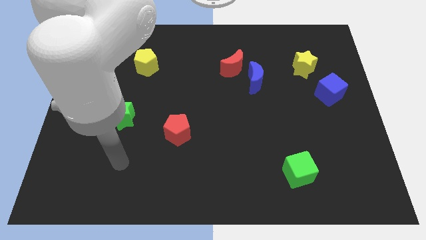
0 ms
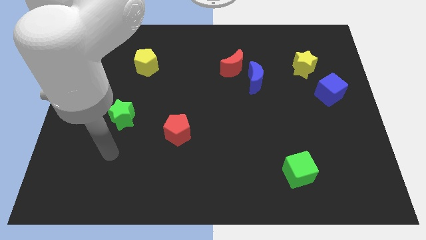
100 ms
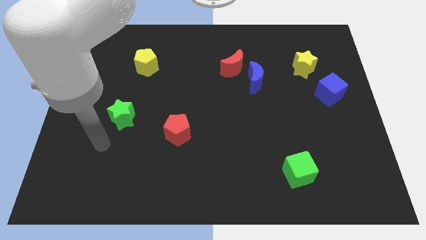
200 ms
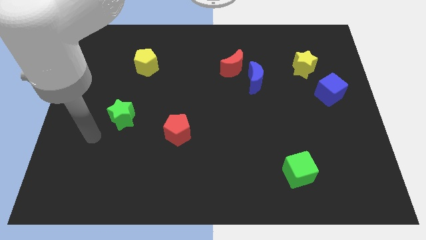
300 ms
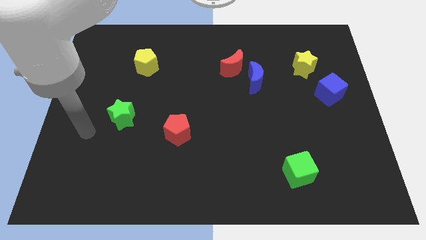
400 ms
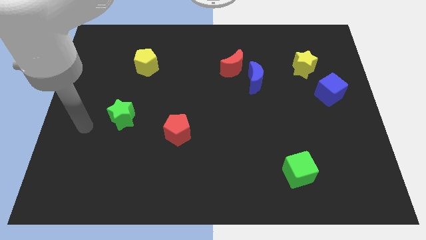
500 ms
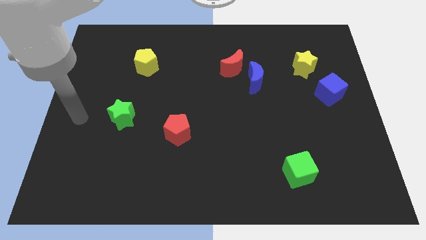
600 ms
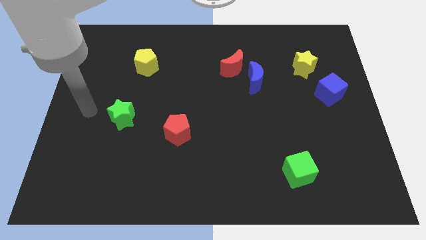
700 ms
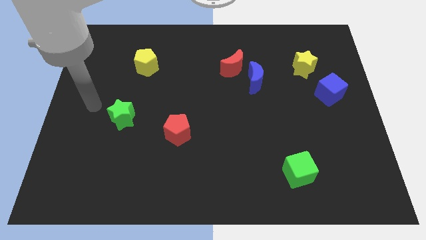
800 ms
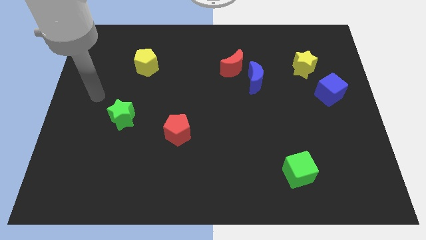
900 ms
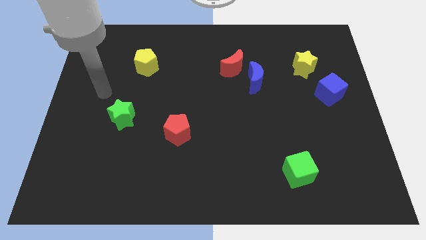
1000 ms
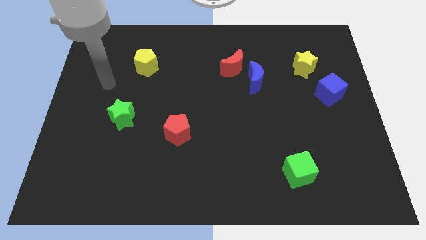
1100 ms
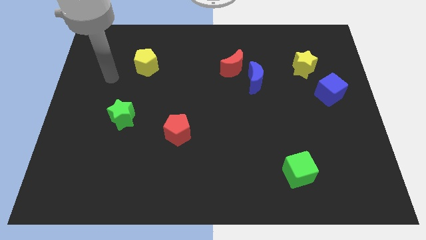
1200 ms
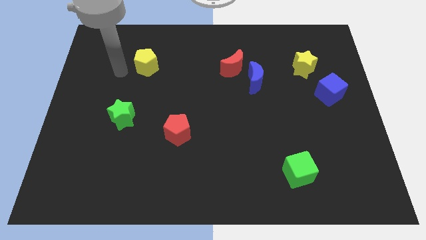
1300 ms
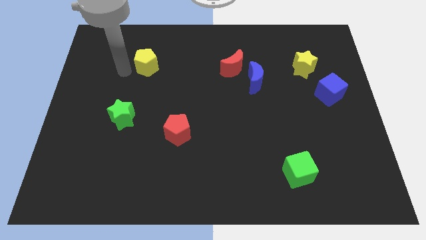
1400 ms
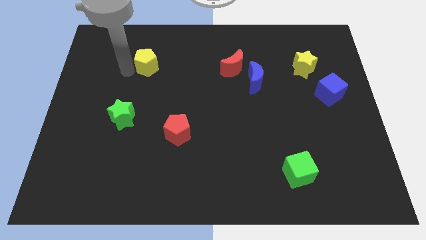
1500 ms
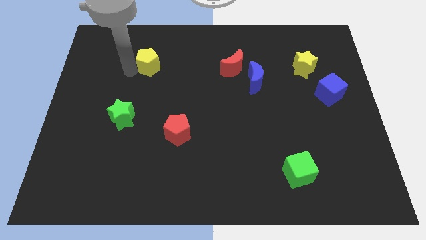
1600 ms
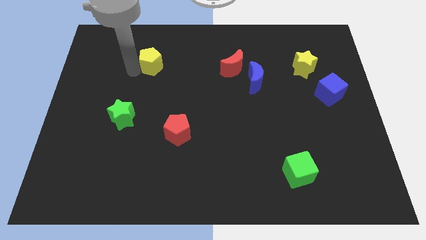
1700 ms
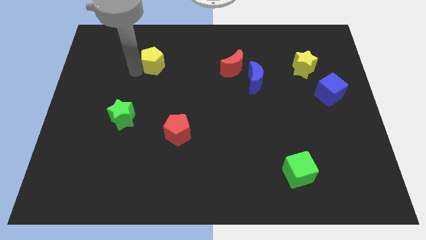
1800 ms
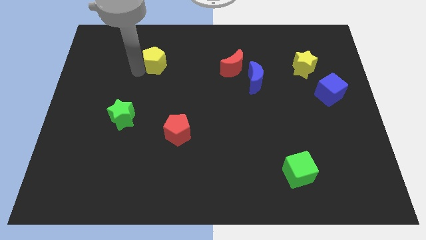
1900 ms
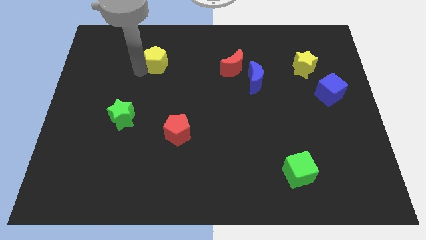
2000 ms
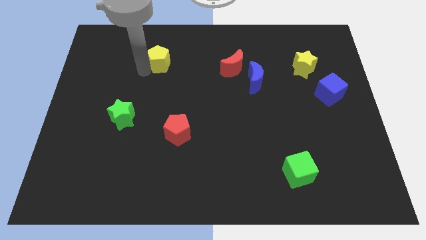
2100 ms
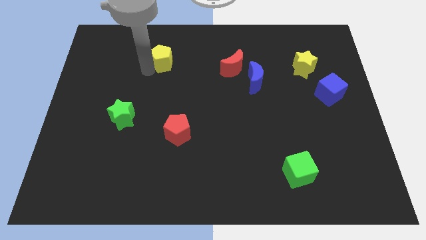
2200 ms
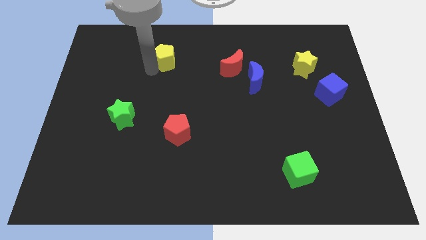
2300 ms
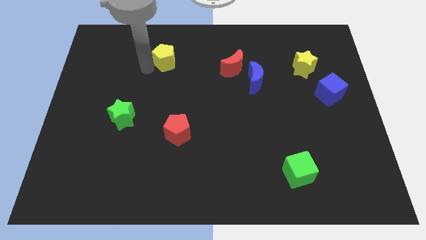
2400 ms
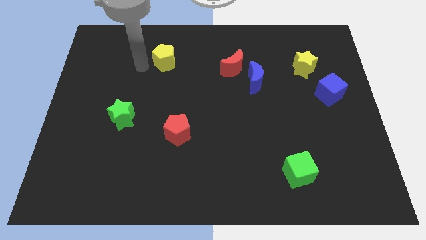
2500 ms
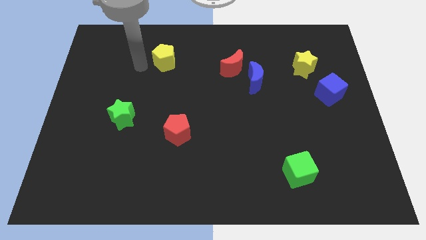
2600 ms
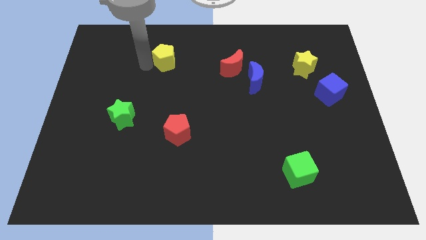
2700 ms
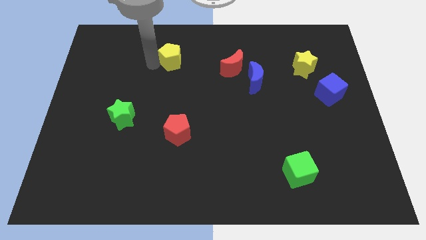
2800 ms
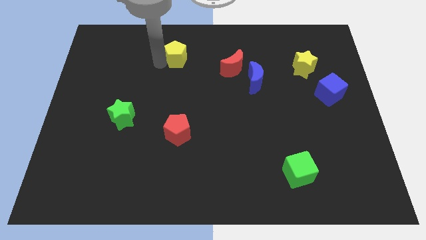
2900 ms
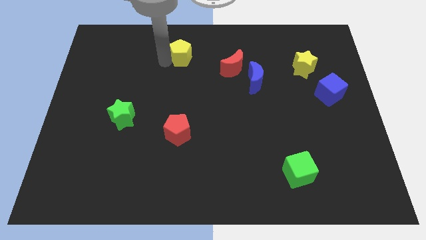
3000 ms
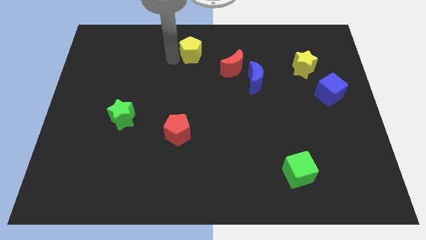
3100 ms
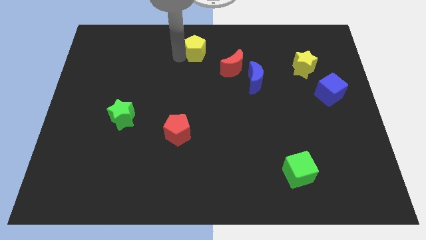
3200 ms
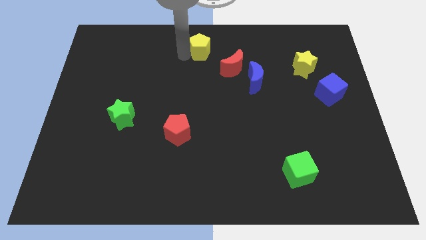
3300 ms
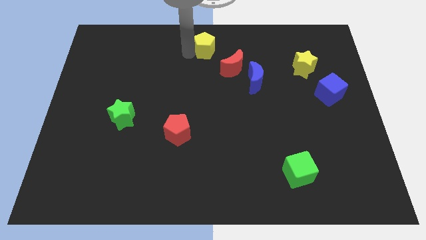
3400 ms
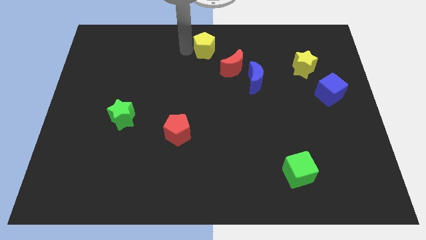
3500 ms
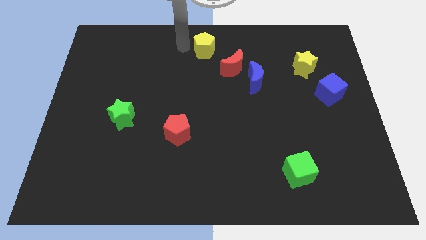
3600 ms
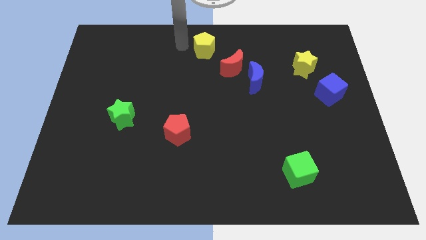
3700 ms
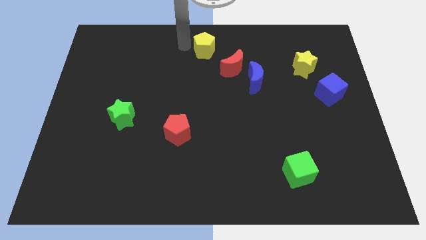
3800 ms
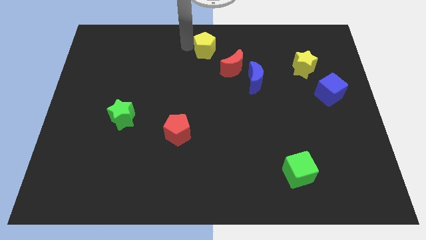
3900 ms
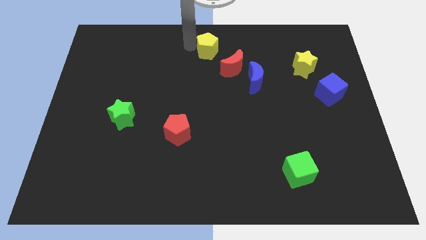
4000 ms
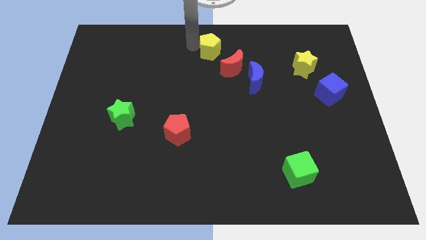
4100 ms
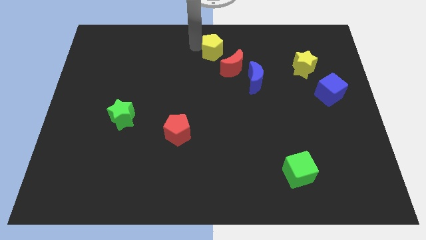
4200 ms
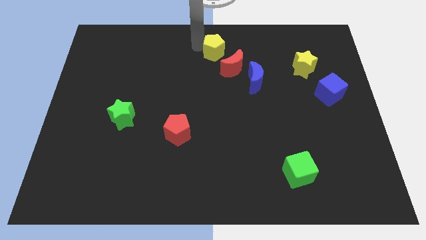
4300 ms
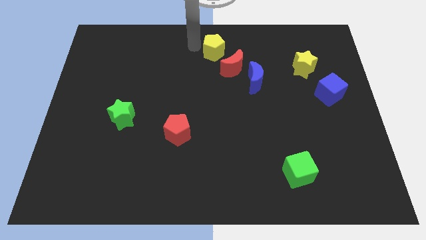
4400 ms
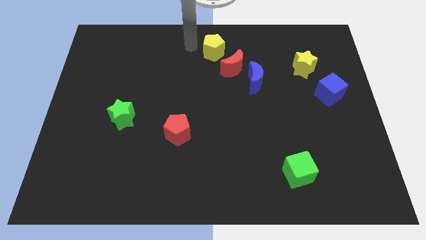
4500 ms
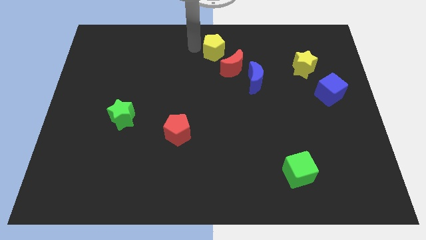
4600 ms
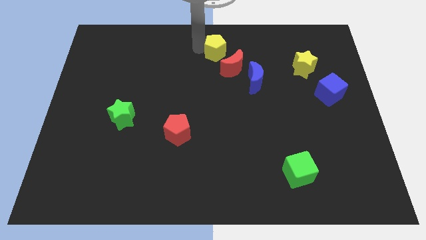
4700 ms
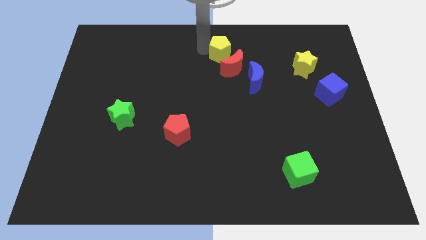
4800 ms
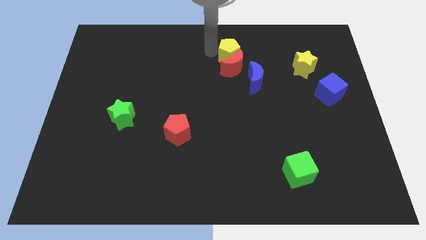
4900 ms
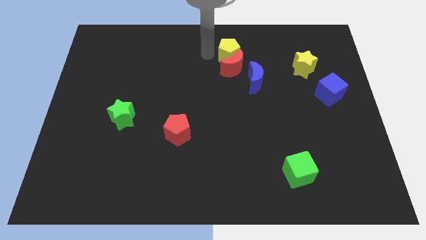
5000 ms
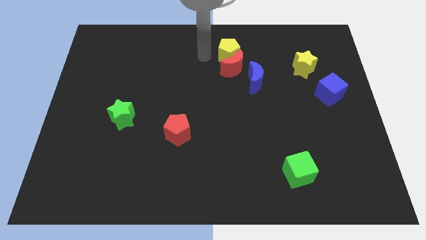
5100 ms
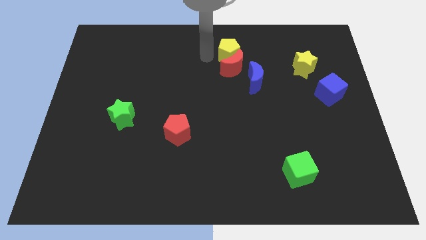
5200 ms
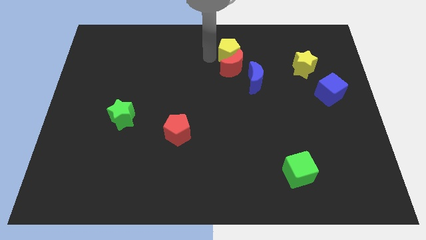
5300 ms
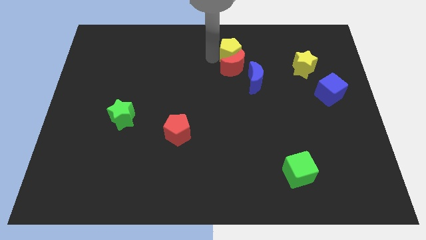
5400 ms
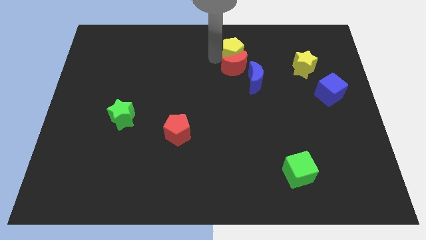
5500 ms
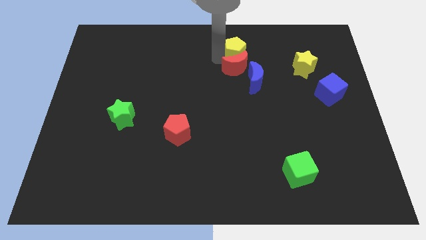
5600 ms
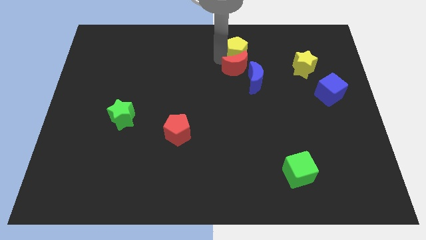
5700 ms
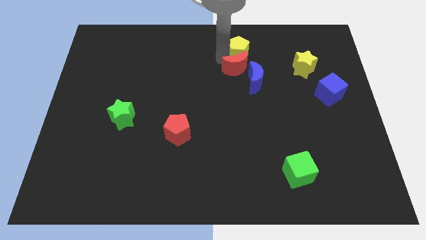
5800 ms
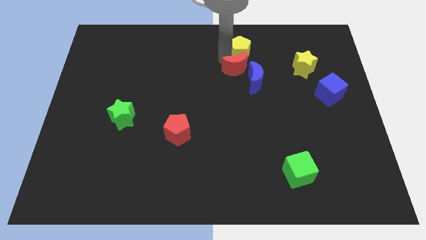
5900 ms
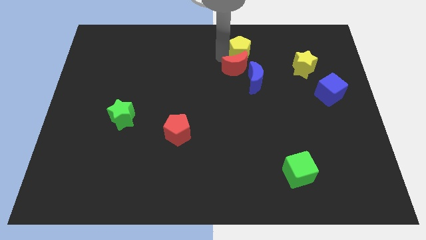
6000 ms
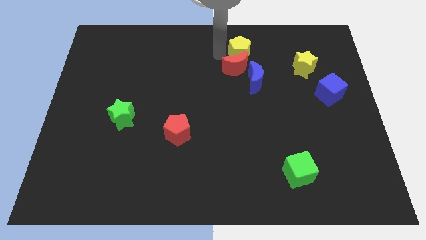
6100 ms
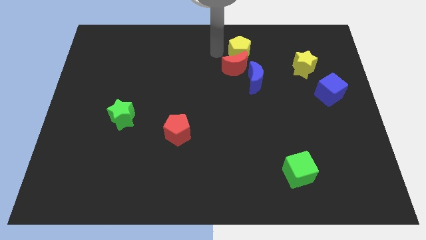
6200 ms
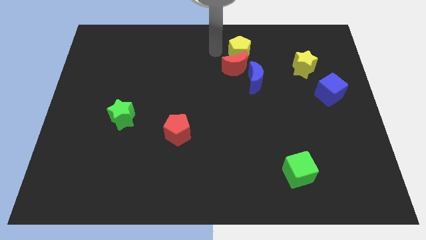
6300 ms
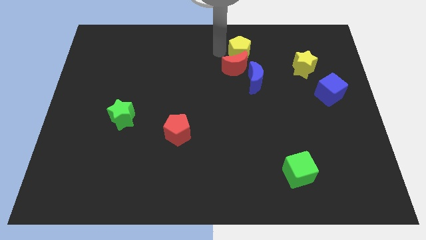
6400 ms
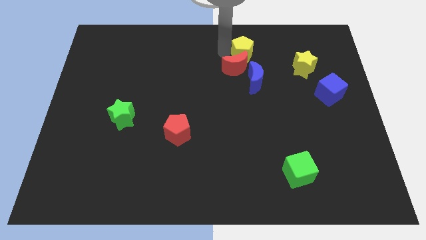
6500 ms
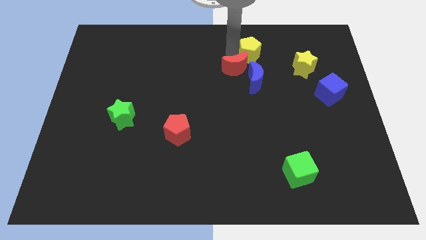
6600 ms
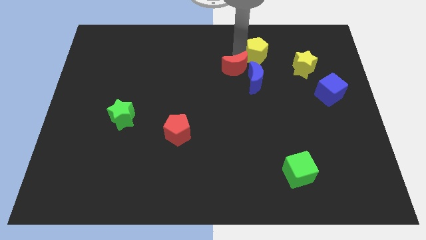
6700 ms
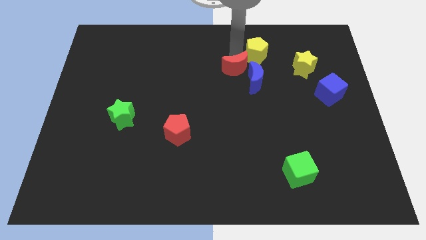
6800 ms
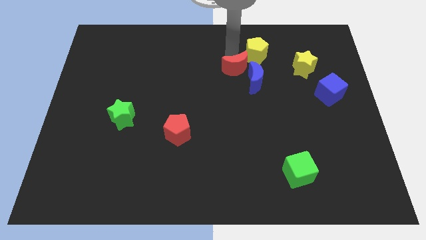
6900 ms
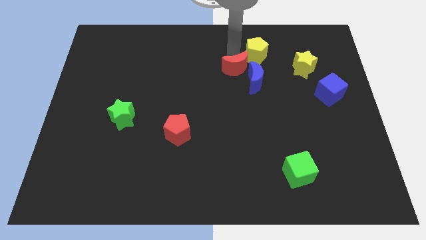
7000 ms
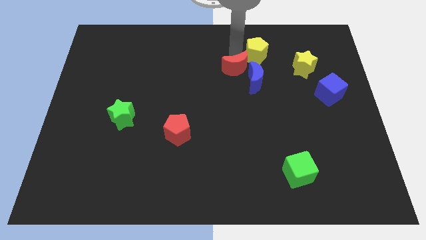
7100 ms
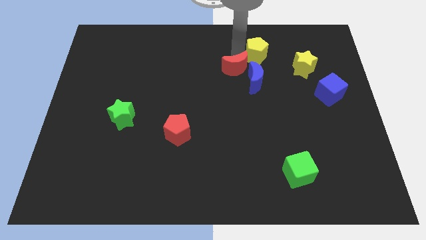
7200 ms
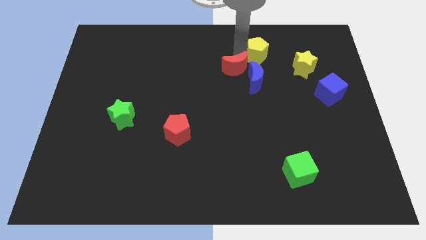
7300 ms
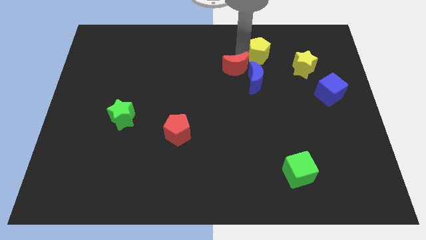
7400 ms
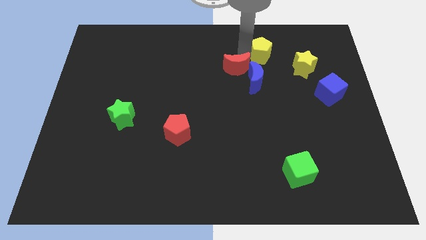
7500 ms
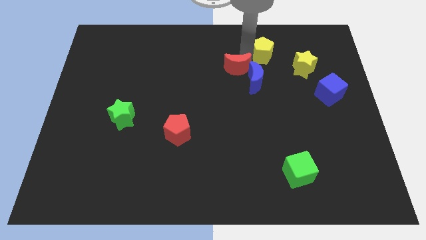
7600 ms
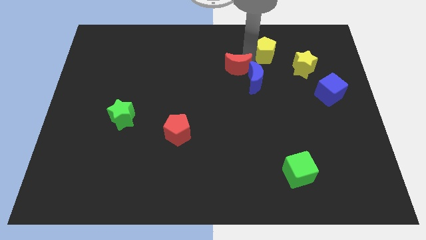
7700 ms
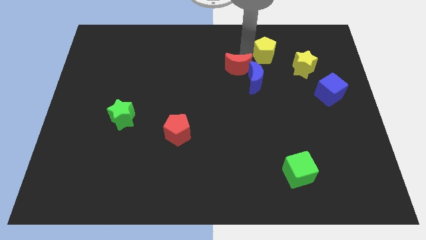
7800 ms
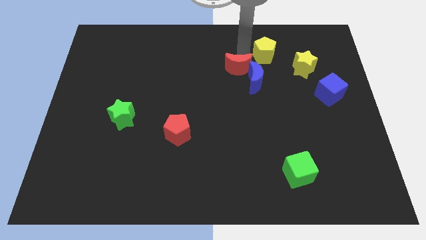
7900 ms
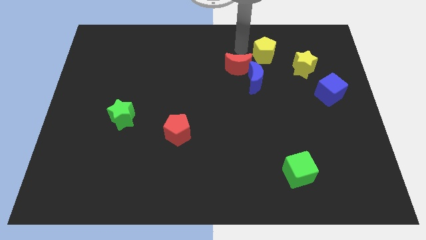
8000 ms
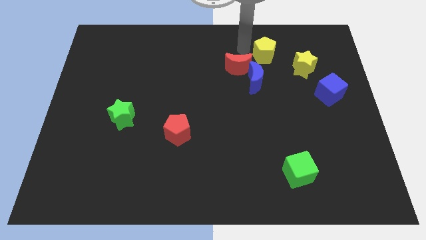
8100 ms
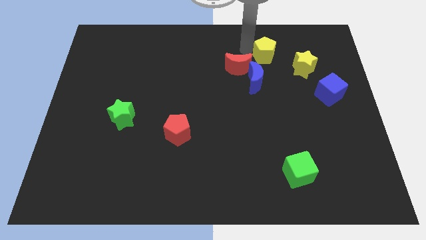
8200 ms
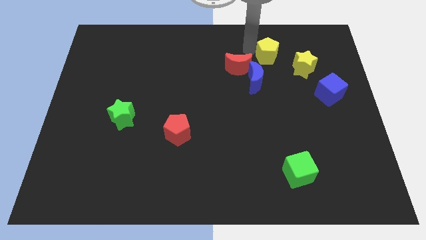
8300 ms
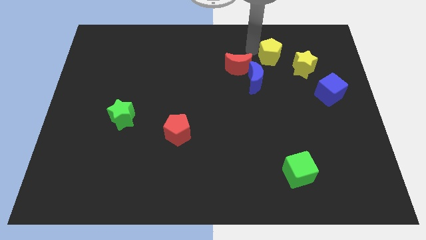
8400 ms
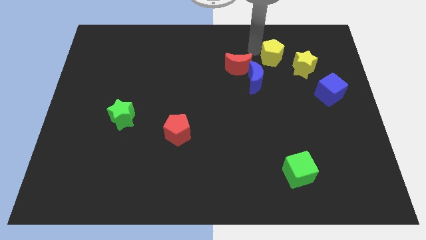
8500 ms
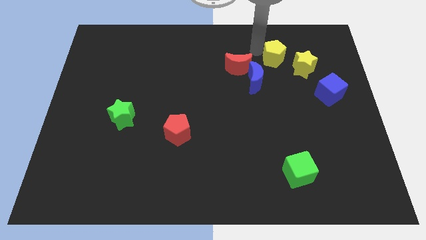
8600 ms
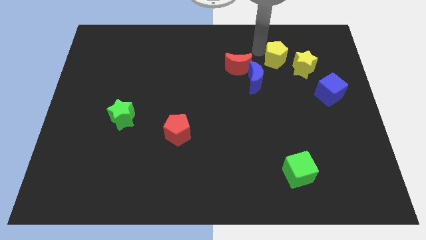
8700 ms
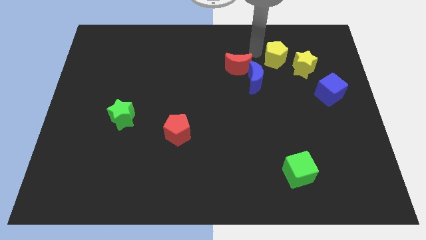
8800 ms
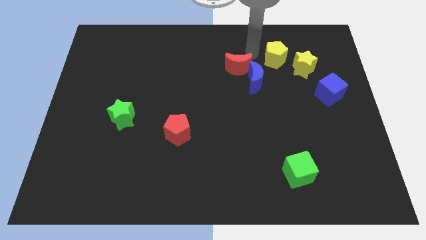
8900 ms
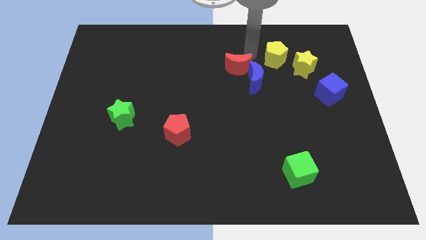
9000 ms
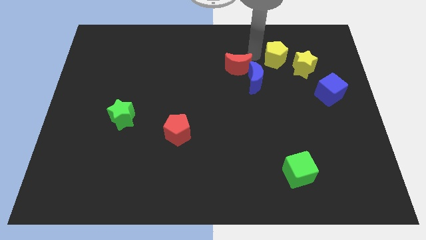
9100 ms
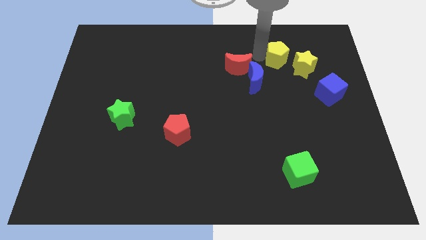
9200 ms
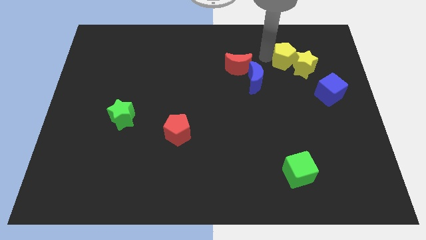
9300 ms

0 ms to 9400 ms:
move the yellow pentagon close to the yellow star
